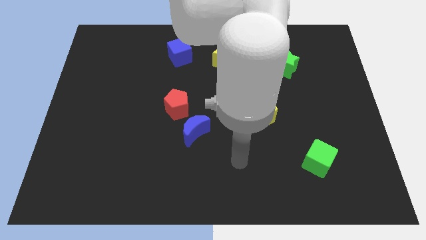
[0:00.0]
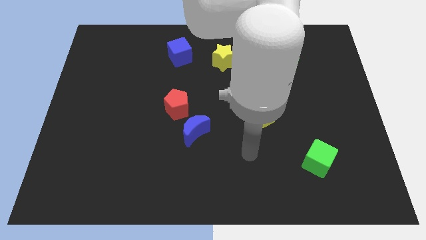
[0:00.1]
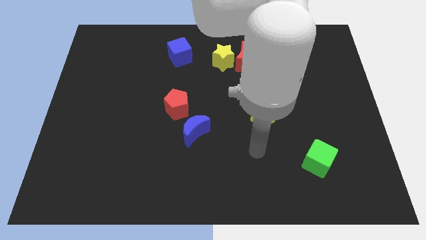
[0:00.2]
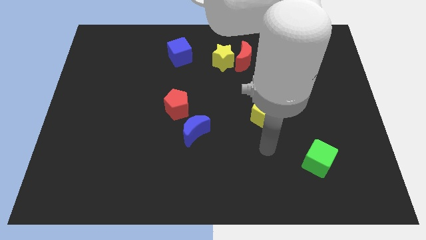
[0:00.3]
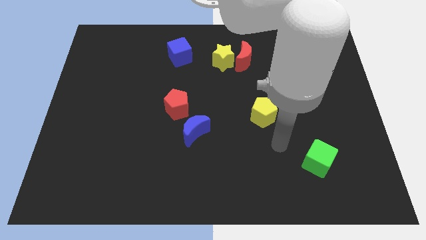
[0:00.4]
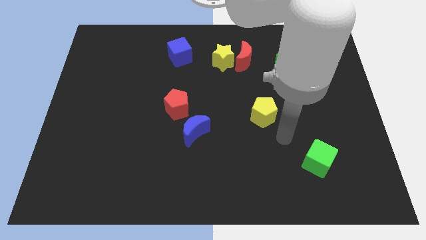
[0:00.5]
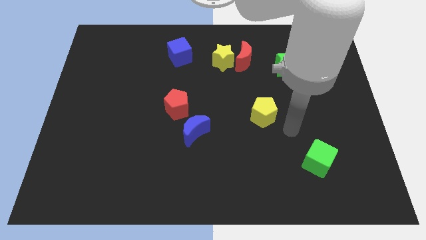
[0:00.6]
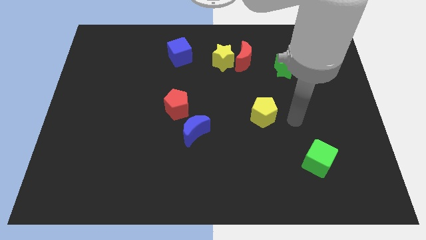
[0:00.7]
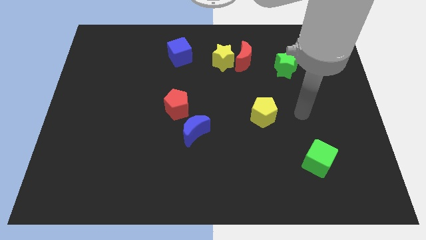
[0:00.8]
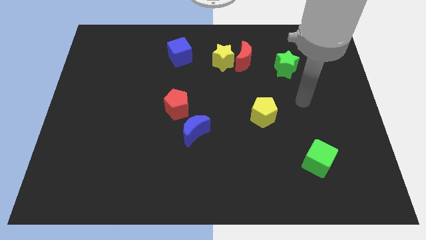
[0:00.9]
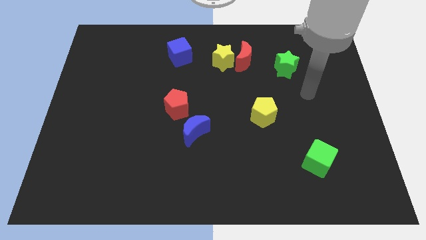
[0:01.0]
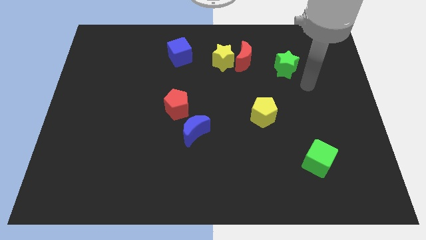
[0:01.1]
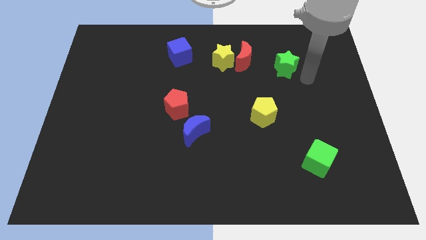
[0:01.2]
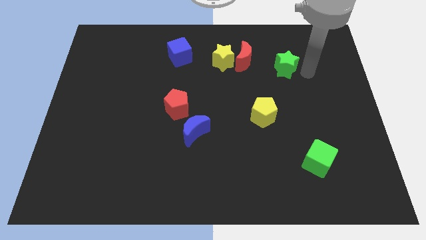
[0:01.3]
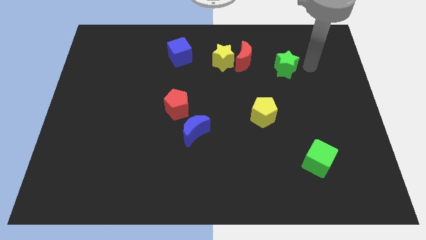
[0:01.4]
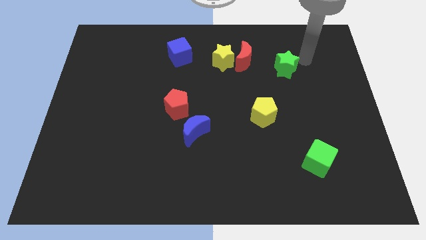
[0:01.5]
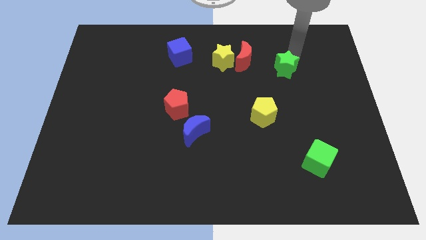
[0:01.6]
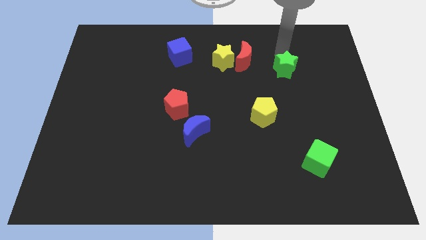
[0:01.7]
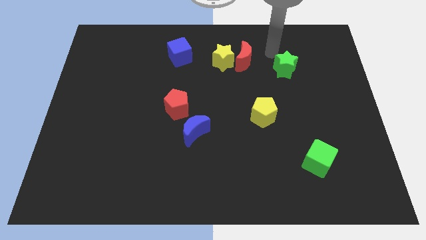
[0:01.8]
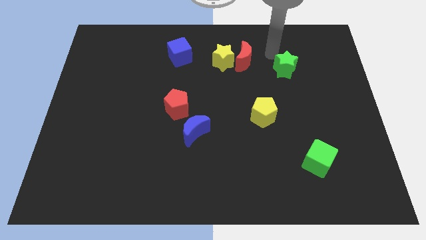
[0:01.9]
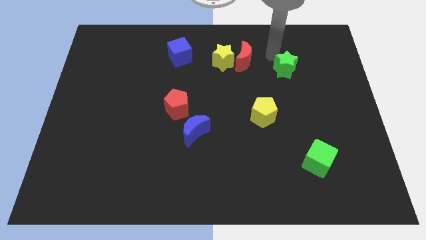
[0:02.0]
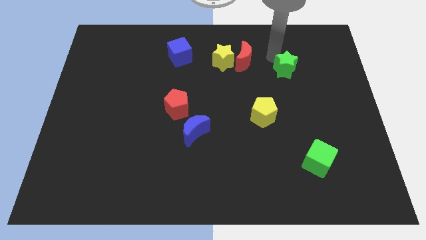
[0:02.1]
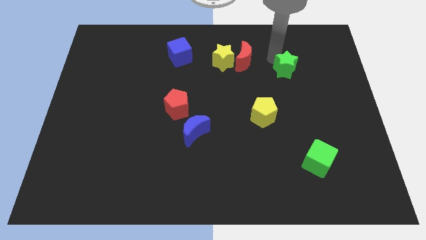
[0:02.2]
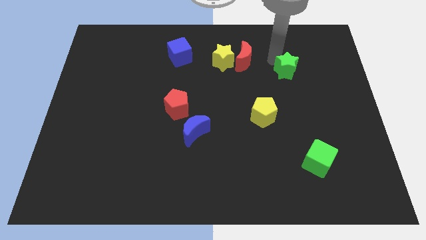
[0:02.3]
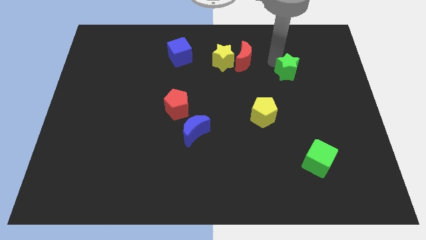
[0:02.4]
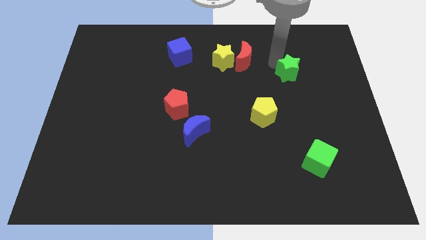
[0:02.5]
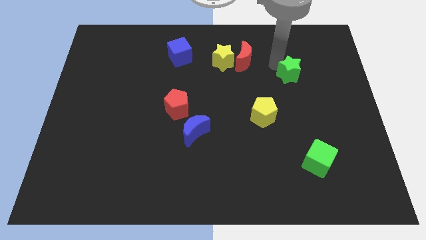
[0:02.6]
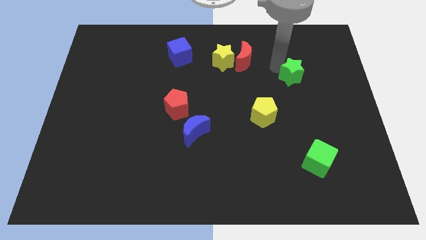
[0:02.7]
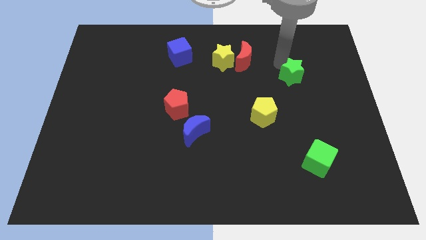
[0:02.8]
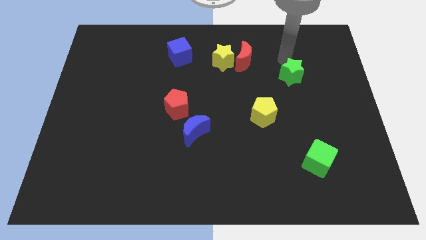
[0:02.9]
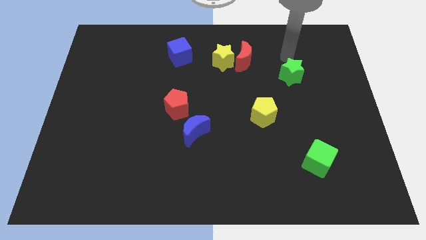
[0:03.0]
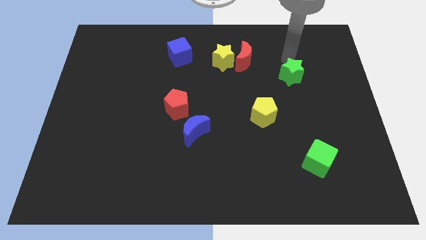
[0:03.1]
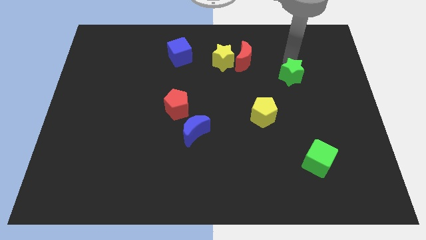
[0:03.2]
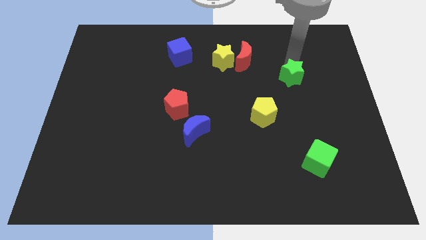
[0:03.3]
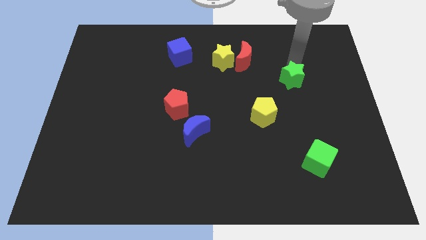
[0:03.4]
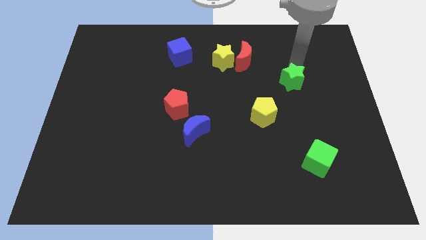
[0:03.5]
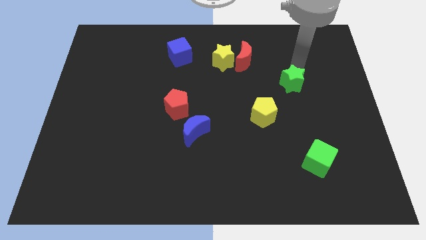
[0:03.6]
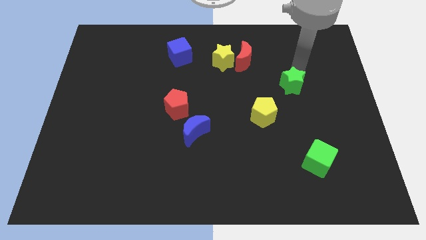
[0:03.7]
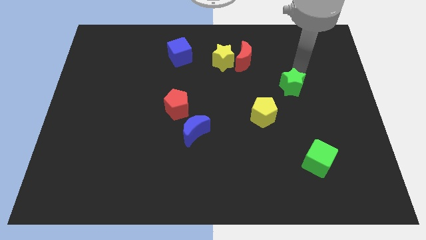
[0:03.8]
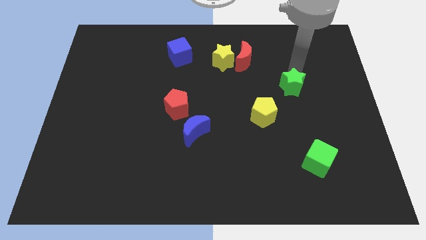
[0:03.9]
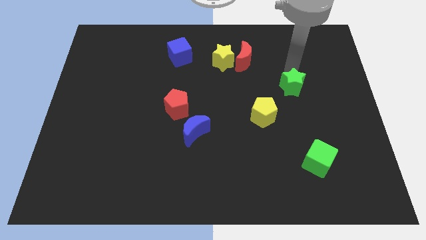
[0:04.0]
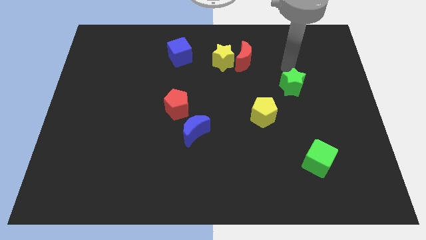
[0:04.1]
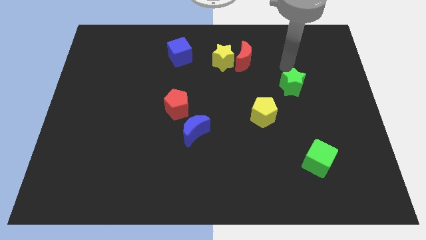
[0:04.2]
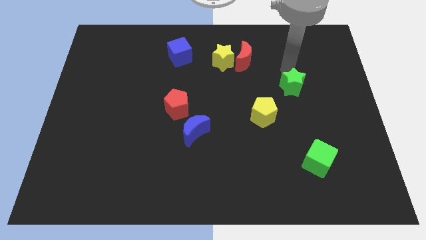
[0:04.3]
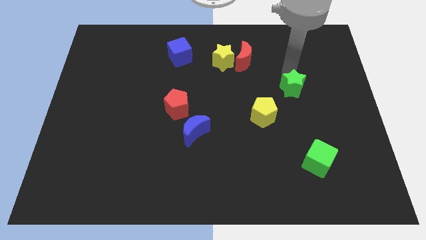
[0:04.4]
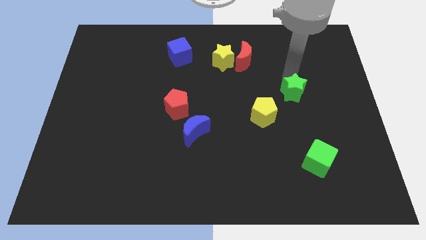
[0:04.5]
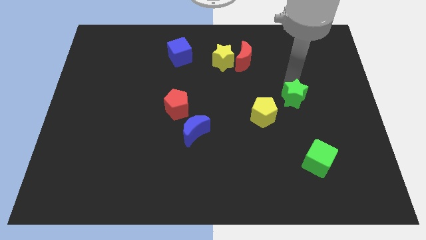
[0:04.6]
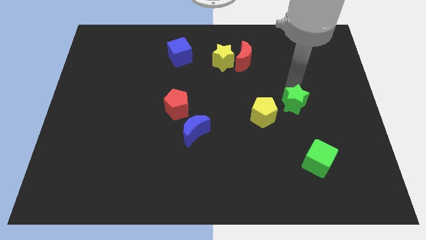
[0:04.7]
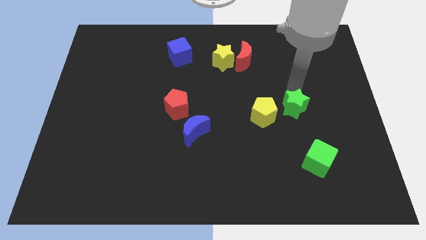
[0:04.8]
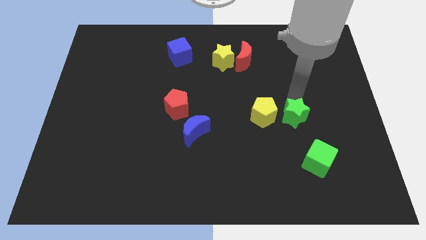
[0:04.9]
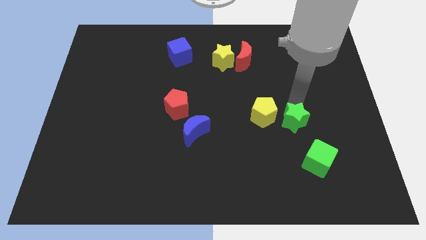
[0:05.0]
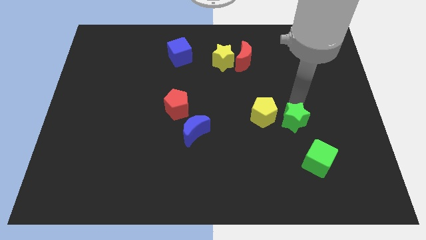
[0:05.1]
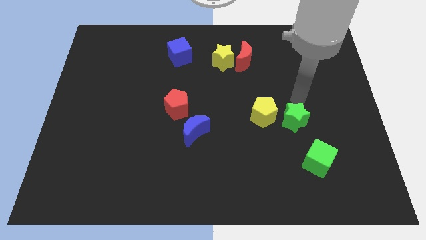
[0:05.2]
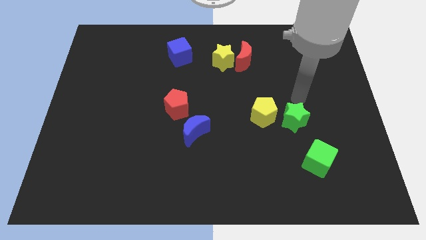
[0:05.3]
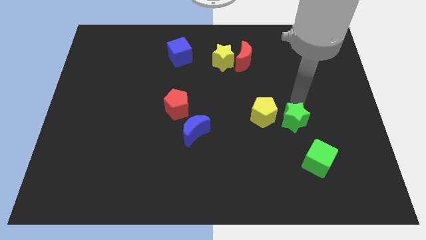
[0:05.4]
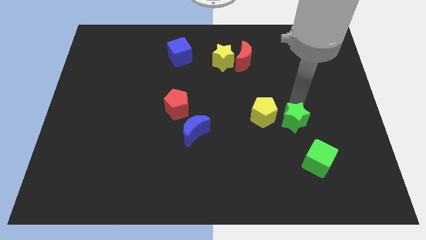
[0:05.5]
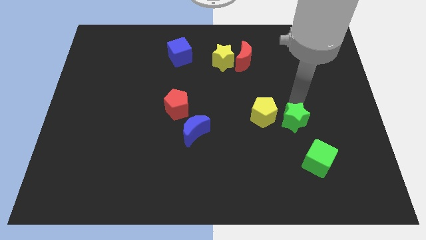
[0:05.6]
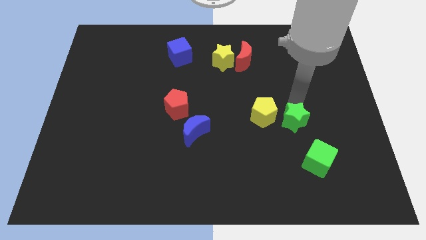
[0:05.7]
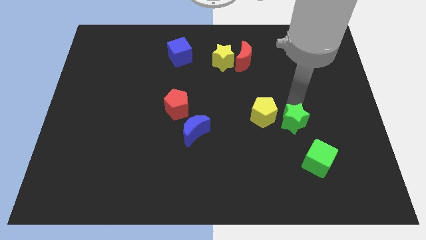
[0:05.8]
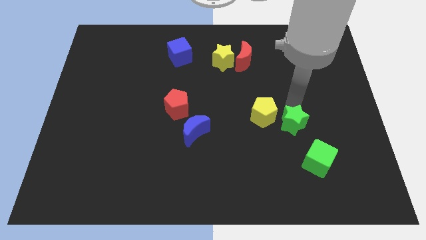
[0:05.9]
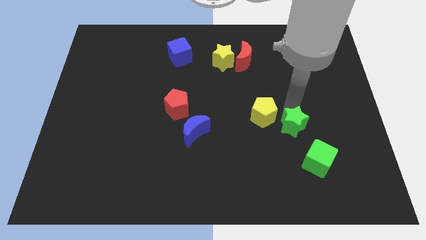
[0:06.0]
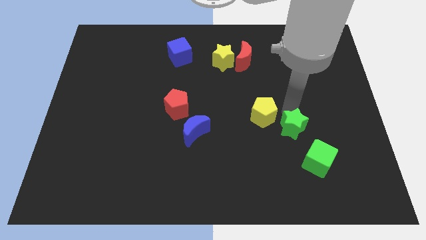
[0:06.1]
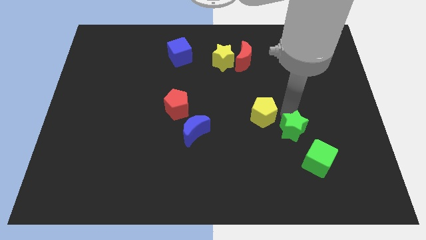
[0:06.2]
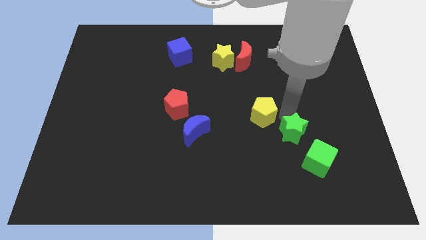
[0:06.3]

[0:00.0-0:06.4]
slide the green star down

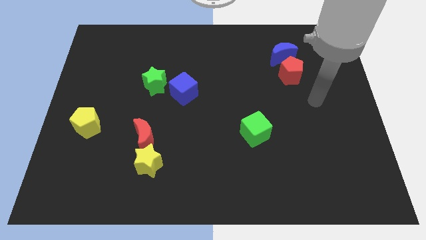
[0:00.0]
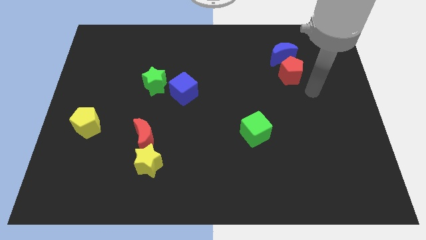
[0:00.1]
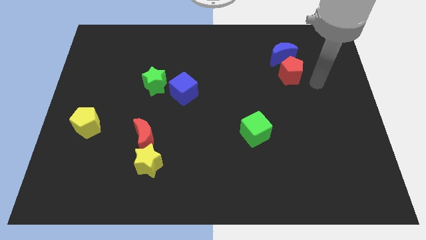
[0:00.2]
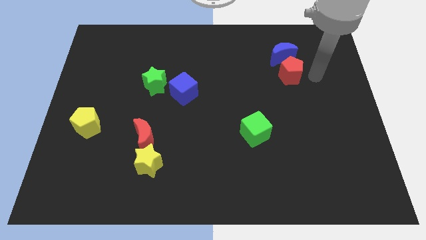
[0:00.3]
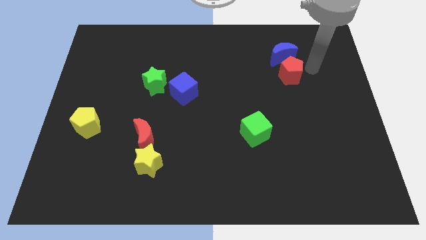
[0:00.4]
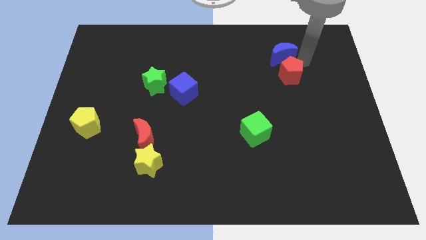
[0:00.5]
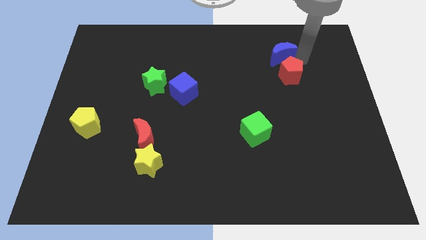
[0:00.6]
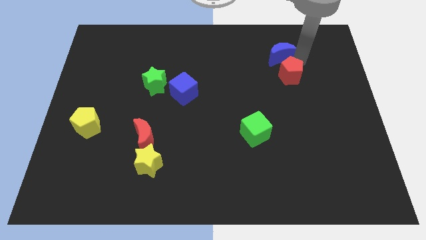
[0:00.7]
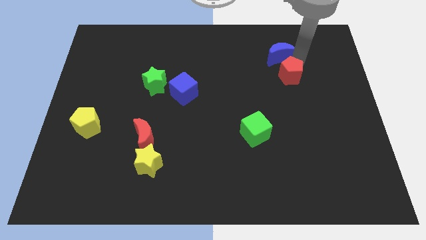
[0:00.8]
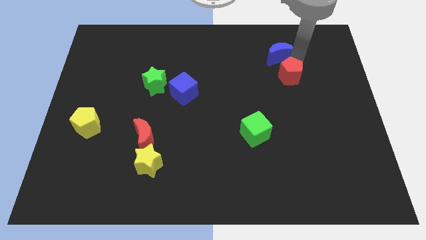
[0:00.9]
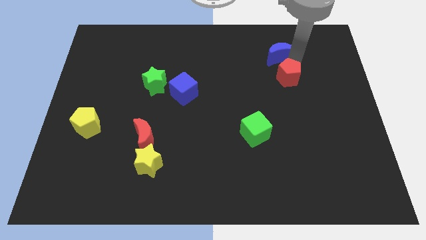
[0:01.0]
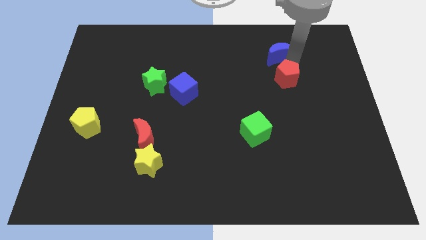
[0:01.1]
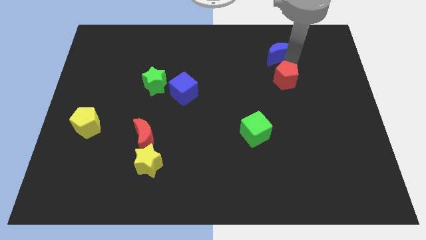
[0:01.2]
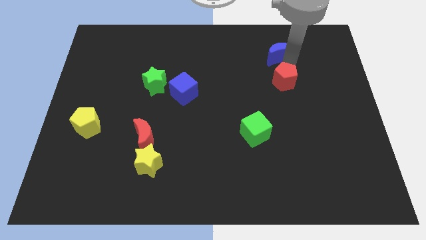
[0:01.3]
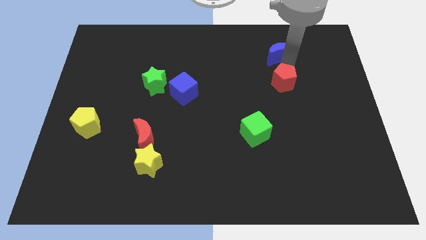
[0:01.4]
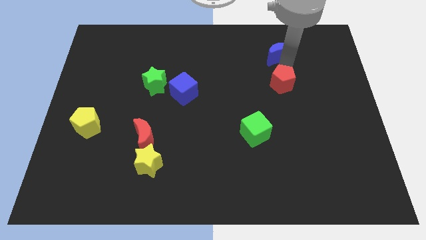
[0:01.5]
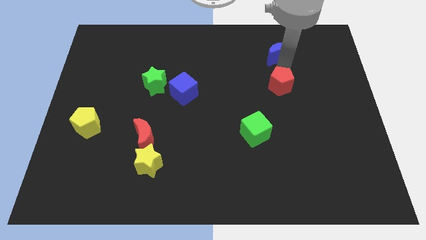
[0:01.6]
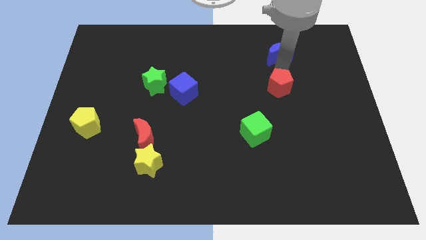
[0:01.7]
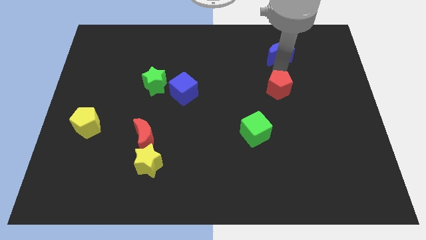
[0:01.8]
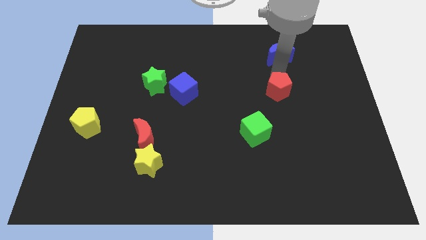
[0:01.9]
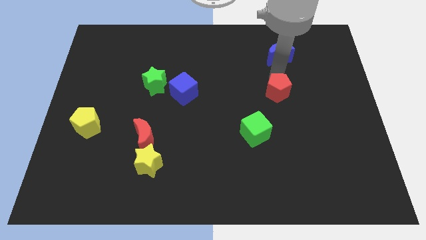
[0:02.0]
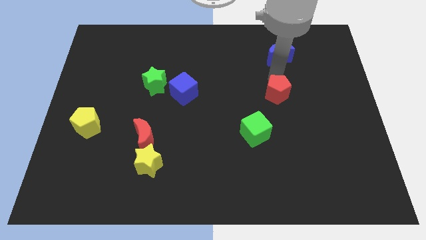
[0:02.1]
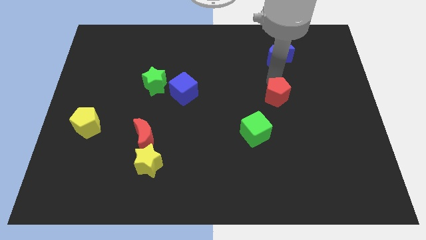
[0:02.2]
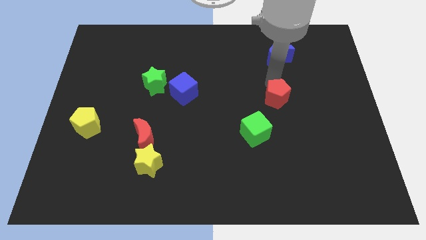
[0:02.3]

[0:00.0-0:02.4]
slightly push the red pentagon downwards
